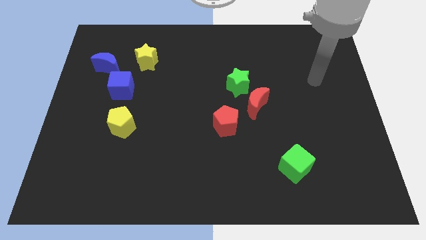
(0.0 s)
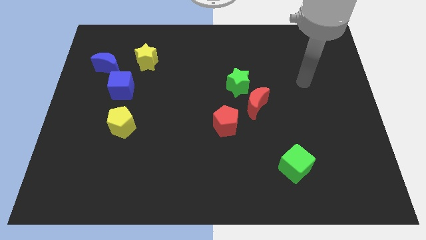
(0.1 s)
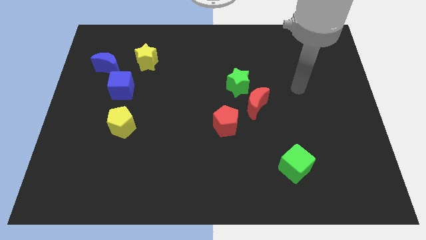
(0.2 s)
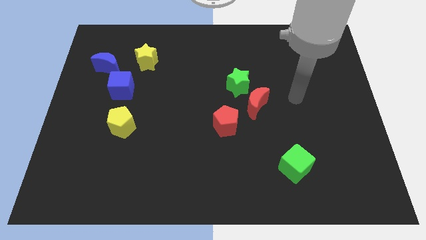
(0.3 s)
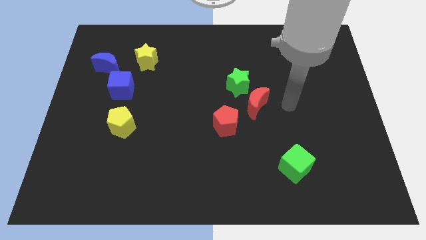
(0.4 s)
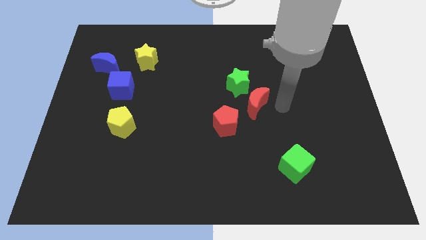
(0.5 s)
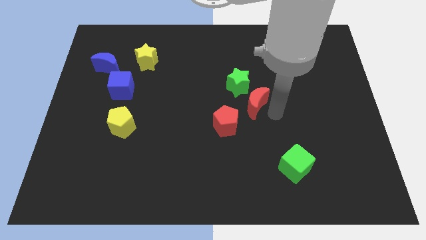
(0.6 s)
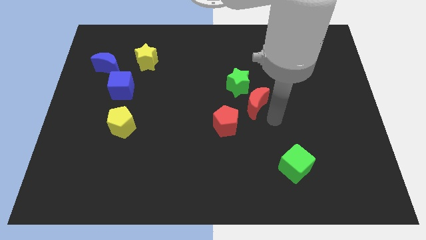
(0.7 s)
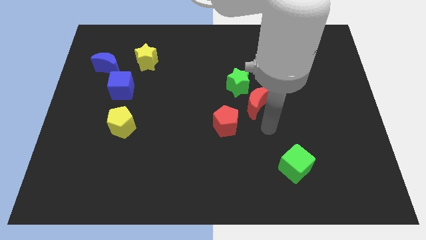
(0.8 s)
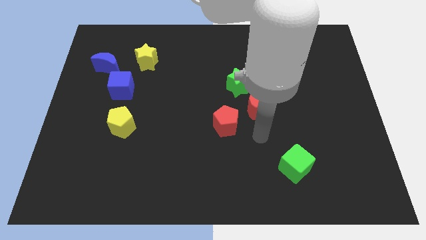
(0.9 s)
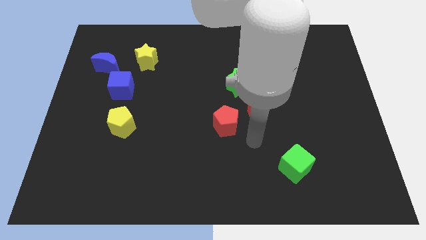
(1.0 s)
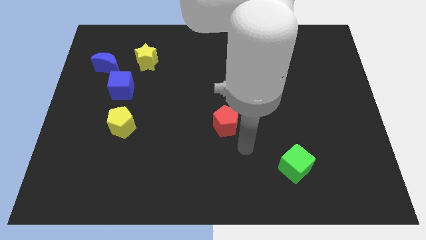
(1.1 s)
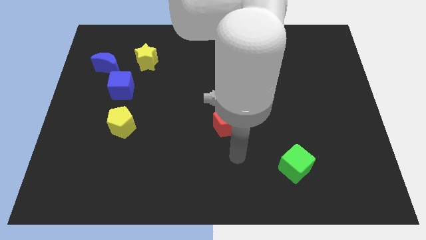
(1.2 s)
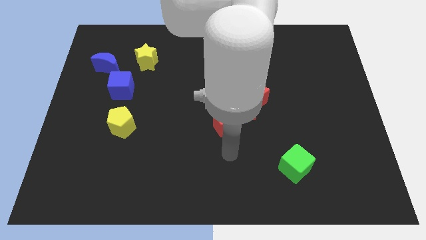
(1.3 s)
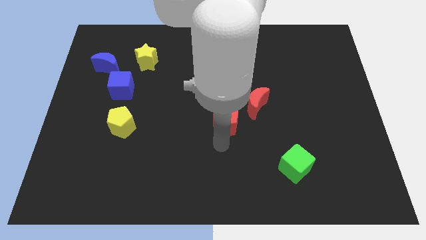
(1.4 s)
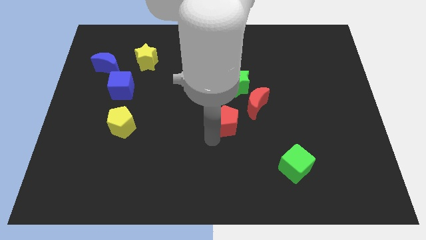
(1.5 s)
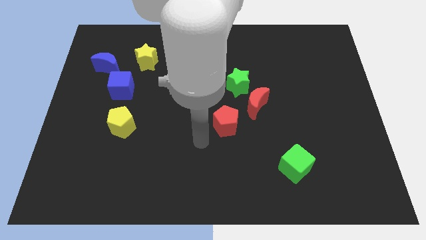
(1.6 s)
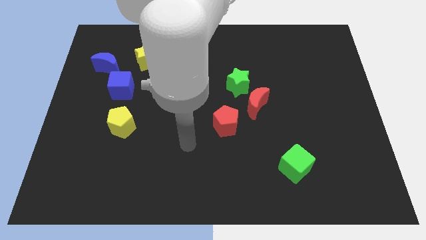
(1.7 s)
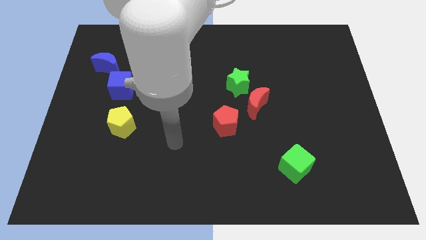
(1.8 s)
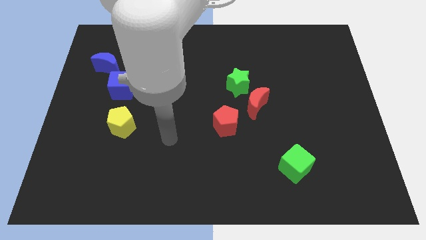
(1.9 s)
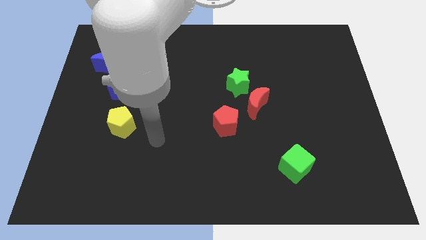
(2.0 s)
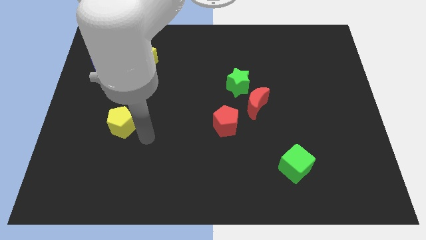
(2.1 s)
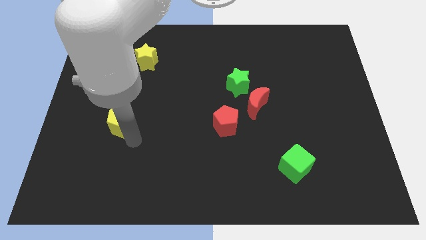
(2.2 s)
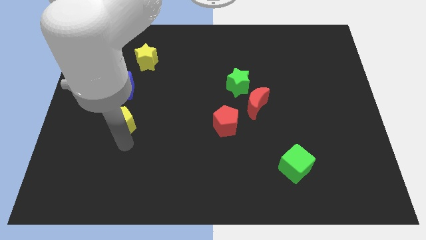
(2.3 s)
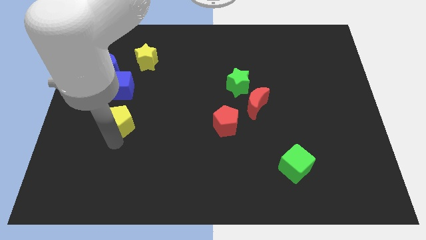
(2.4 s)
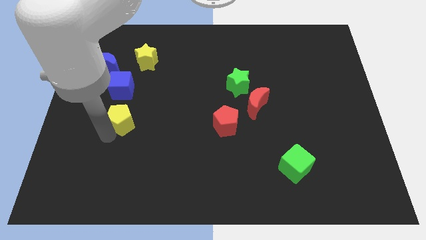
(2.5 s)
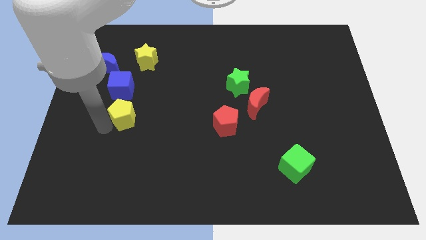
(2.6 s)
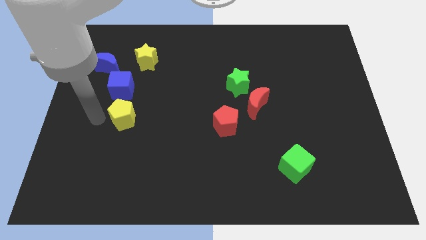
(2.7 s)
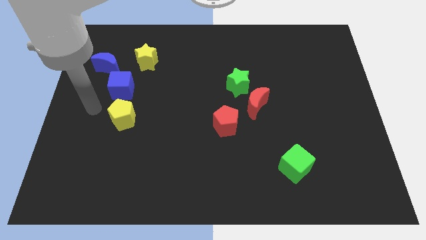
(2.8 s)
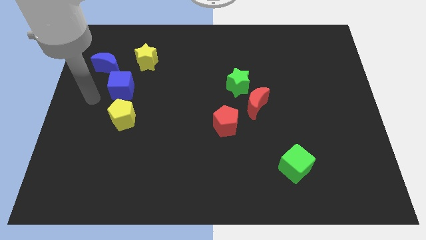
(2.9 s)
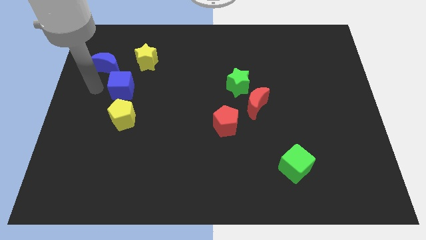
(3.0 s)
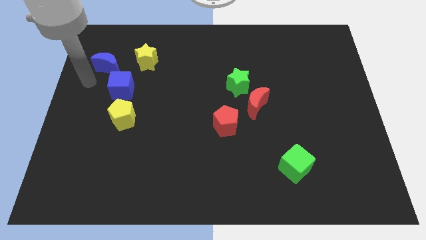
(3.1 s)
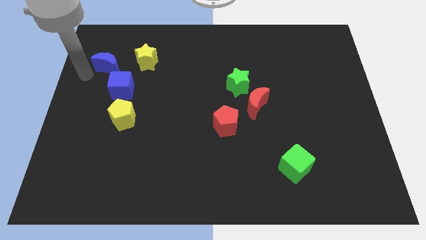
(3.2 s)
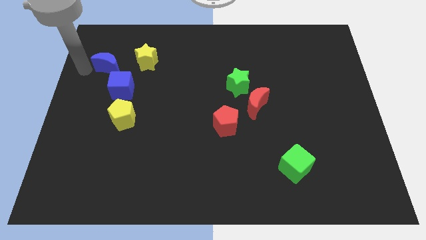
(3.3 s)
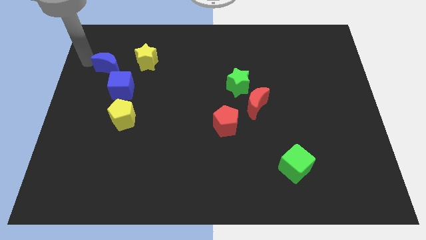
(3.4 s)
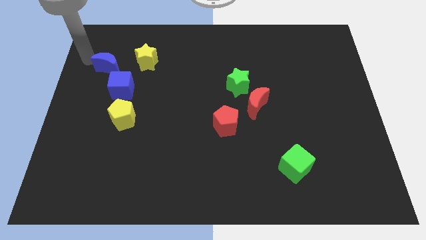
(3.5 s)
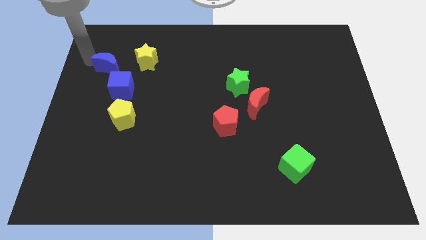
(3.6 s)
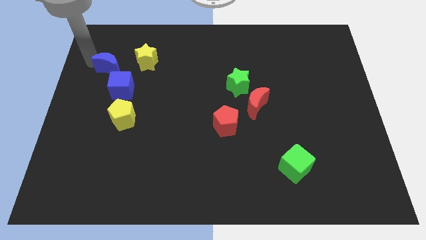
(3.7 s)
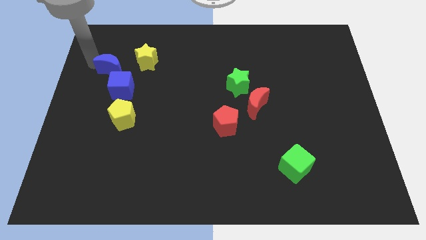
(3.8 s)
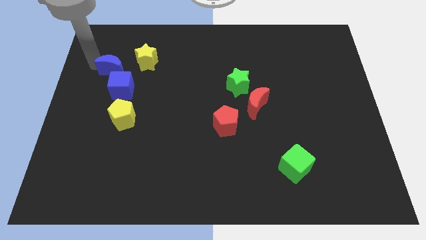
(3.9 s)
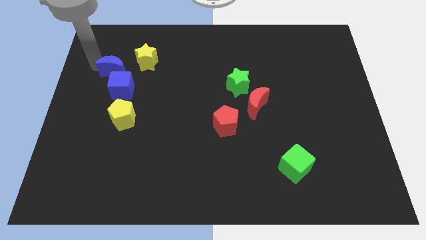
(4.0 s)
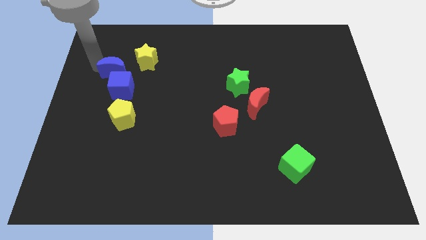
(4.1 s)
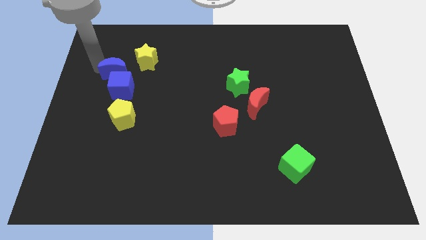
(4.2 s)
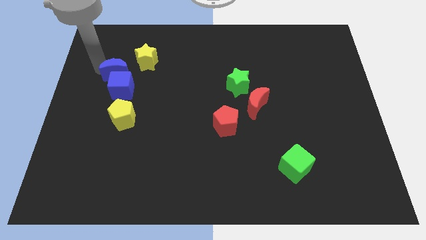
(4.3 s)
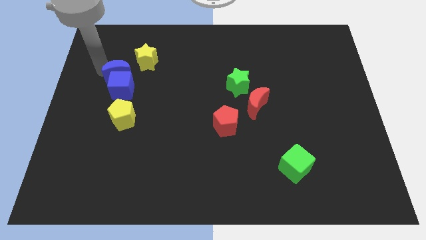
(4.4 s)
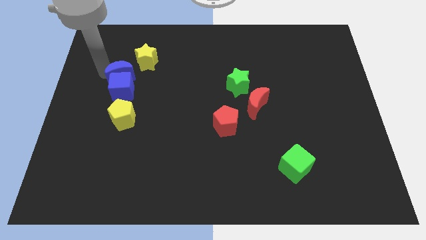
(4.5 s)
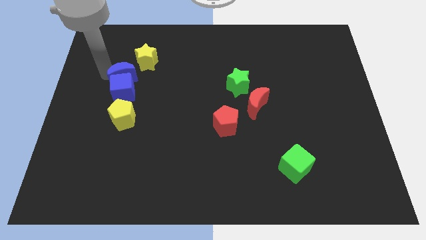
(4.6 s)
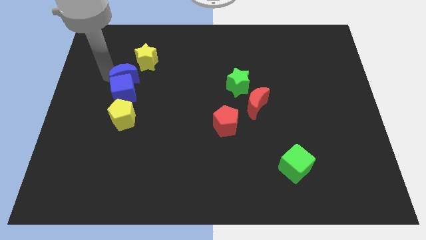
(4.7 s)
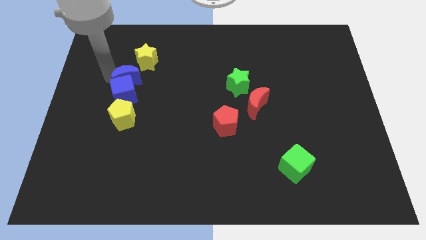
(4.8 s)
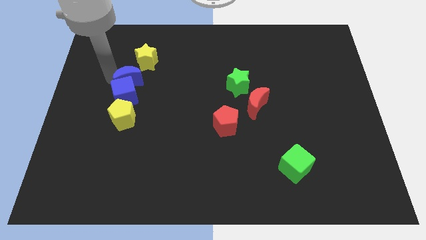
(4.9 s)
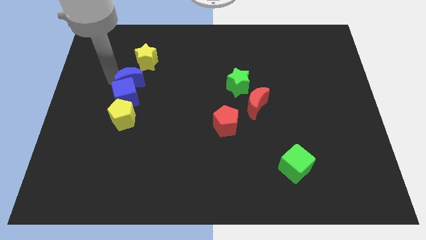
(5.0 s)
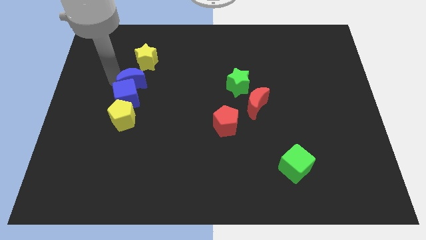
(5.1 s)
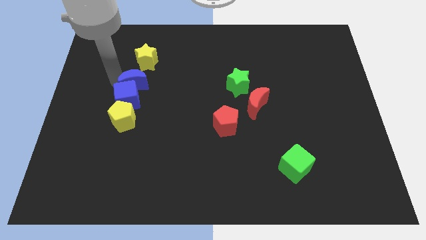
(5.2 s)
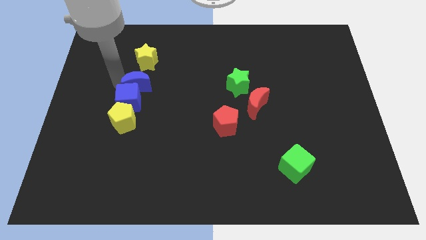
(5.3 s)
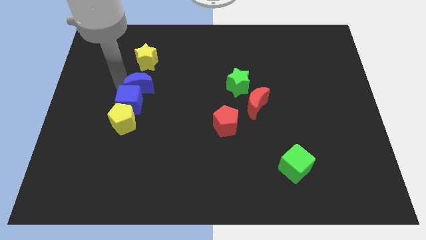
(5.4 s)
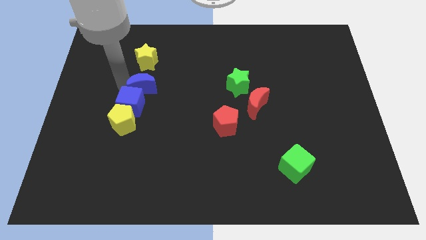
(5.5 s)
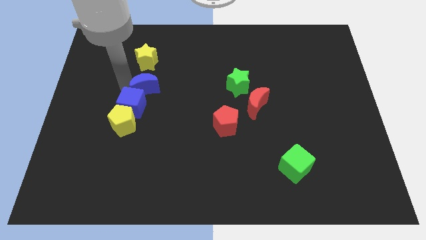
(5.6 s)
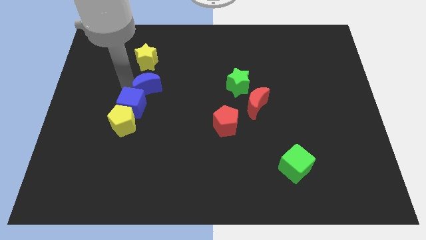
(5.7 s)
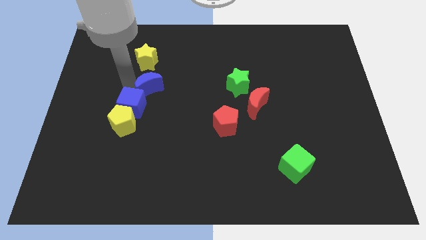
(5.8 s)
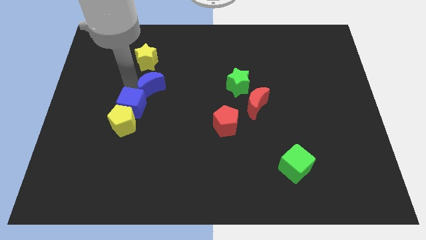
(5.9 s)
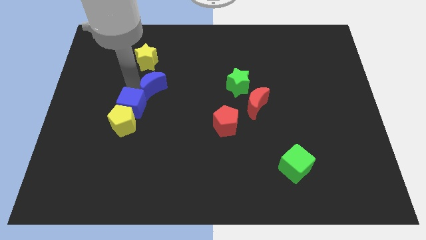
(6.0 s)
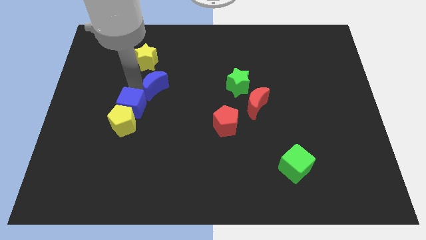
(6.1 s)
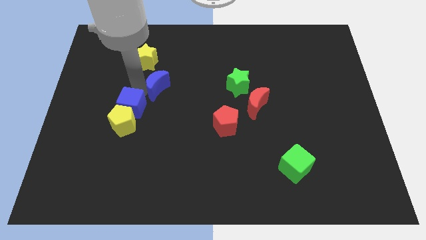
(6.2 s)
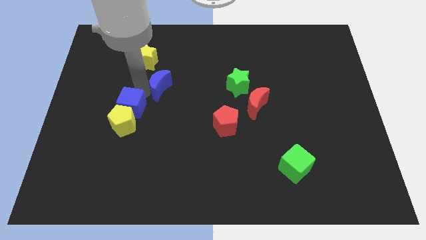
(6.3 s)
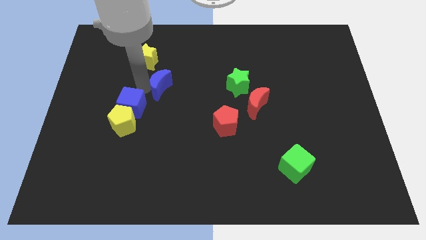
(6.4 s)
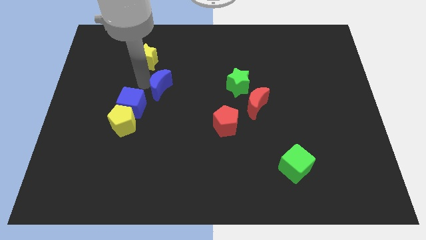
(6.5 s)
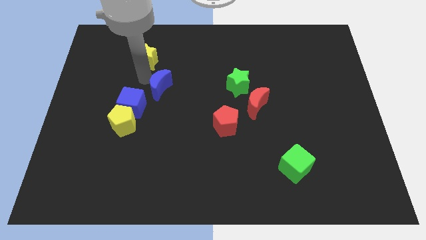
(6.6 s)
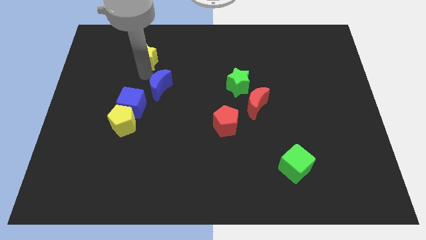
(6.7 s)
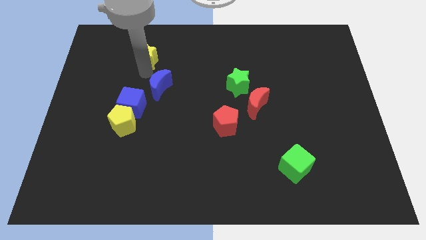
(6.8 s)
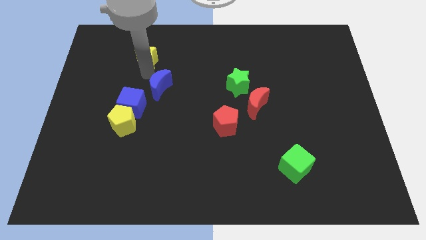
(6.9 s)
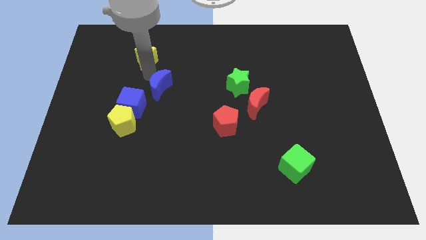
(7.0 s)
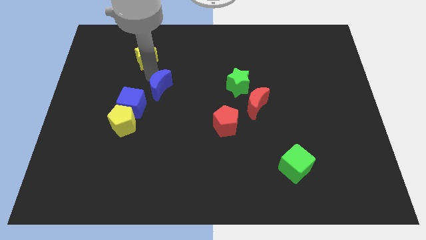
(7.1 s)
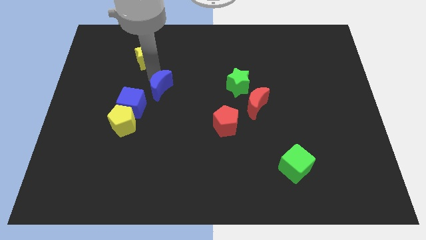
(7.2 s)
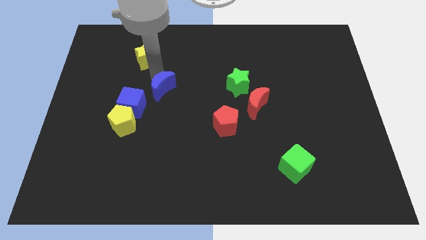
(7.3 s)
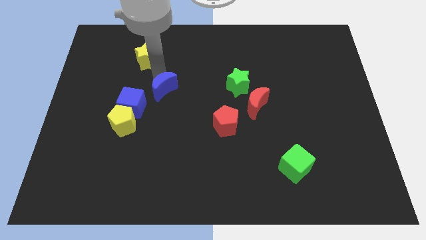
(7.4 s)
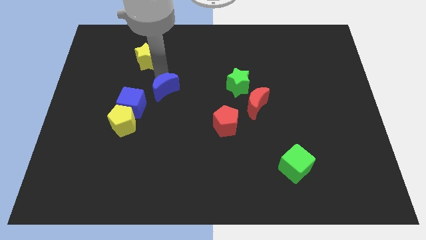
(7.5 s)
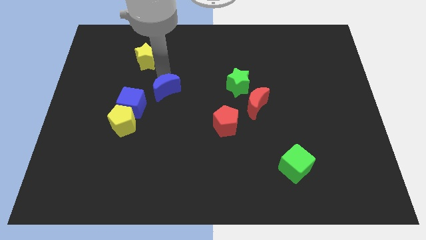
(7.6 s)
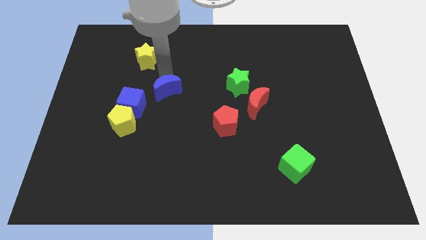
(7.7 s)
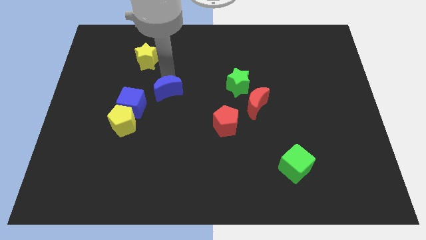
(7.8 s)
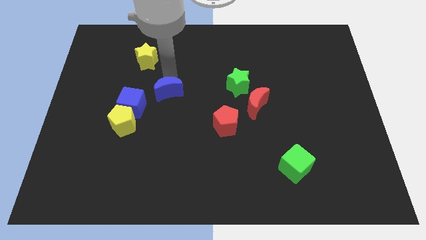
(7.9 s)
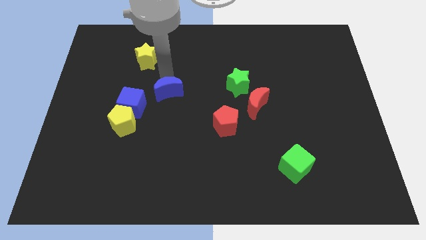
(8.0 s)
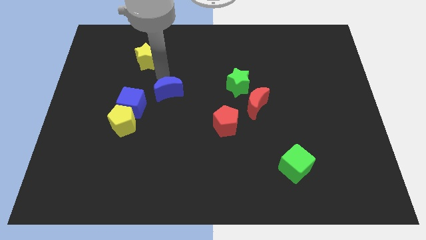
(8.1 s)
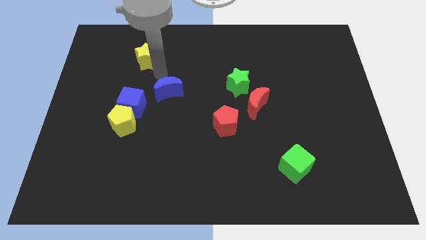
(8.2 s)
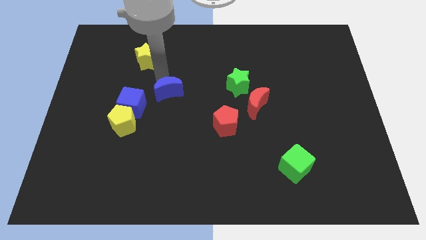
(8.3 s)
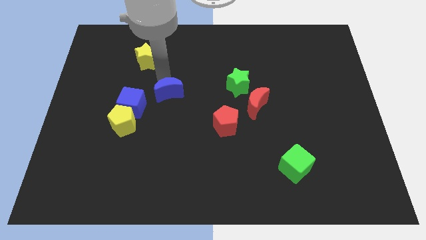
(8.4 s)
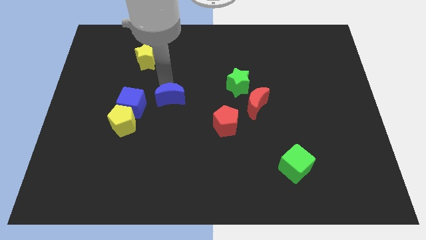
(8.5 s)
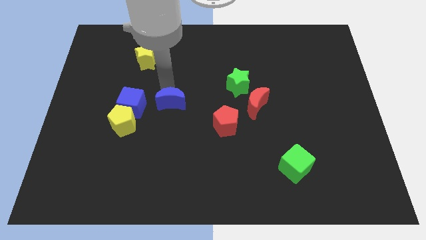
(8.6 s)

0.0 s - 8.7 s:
push the blue moon diagonally downwards and to the right
